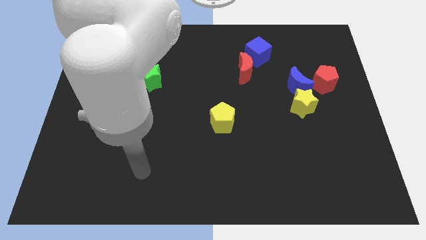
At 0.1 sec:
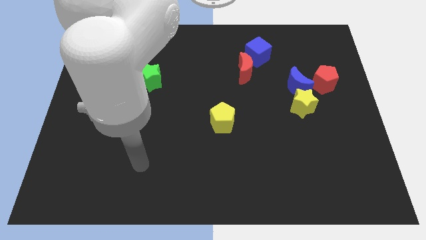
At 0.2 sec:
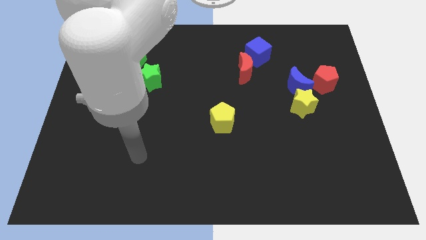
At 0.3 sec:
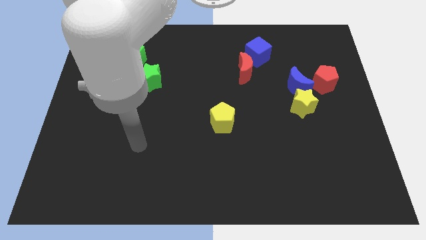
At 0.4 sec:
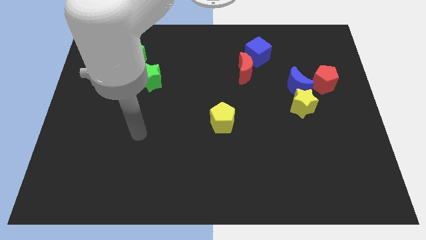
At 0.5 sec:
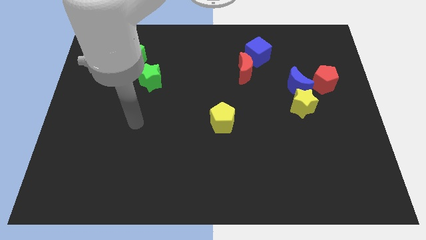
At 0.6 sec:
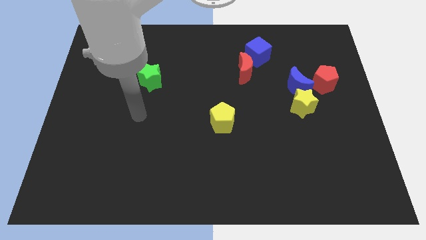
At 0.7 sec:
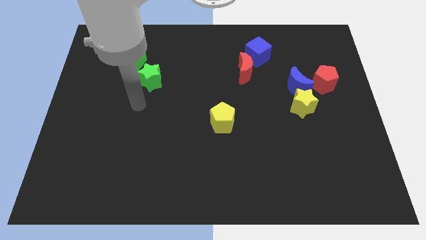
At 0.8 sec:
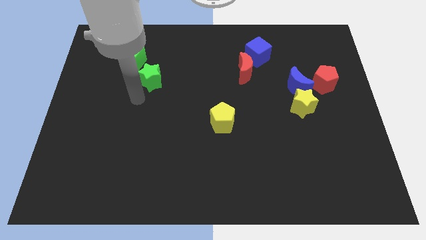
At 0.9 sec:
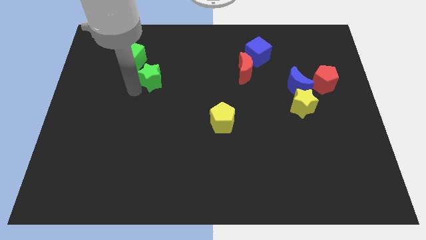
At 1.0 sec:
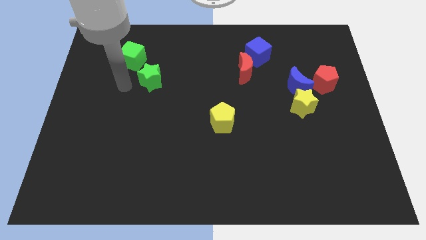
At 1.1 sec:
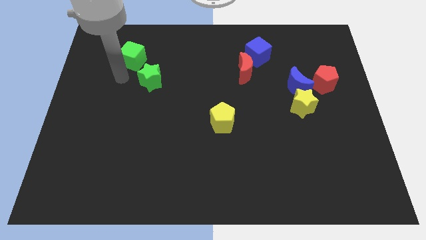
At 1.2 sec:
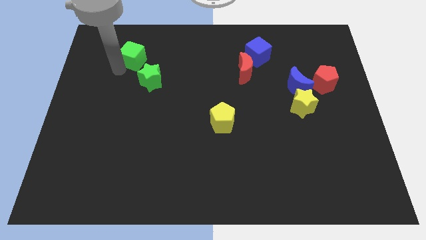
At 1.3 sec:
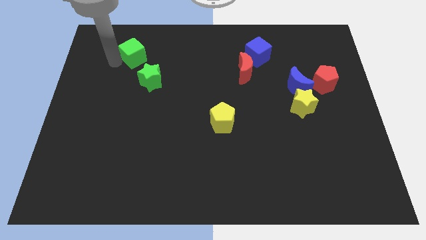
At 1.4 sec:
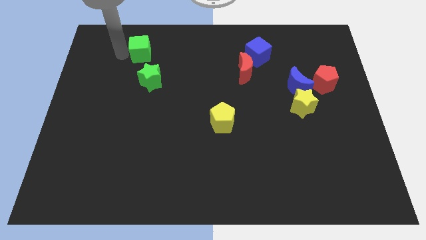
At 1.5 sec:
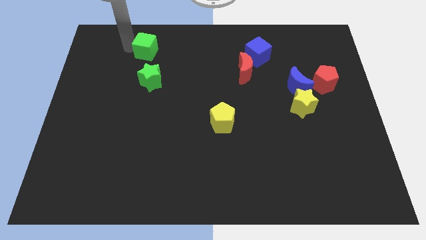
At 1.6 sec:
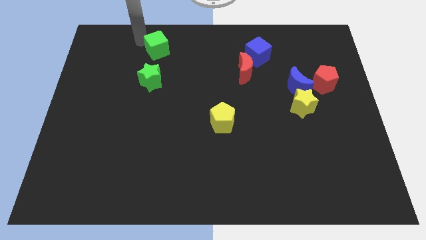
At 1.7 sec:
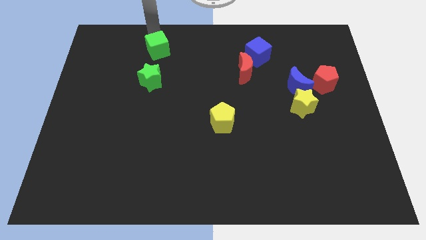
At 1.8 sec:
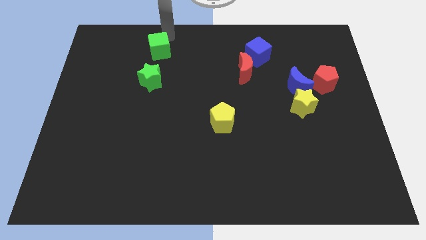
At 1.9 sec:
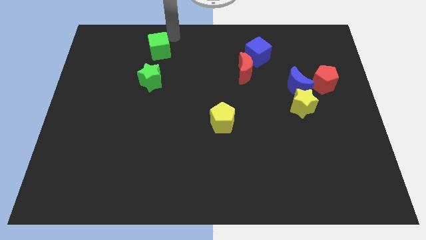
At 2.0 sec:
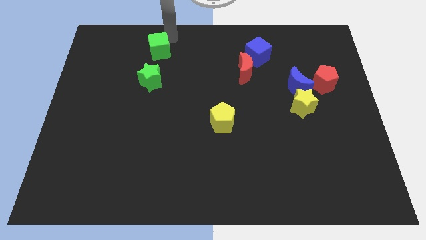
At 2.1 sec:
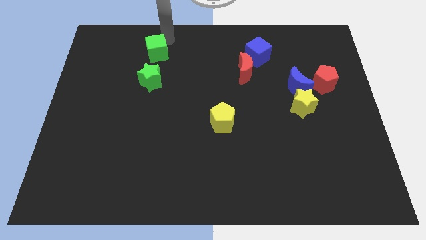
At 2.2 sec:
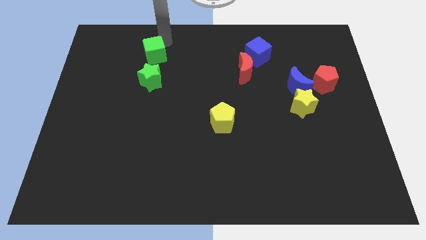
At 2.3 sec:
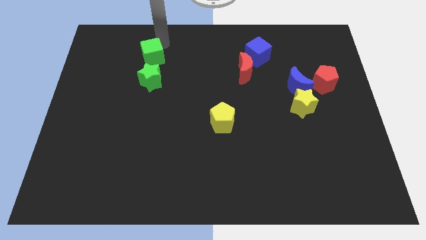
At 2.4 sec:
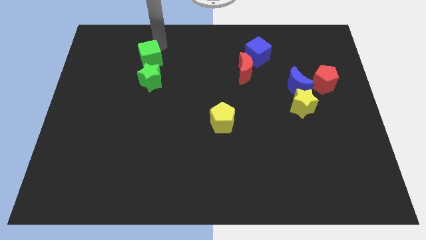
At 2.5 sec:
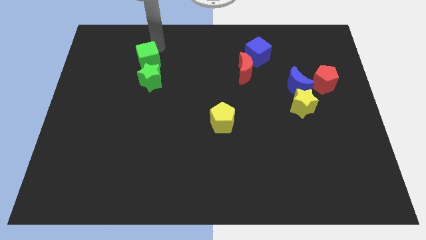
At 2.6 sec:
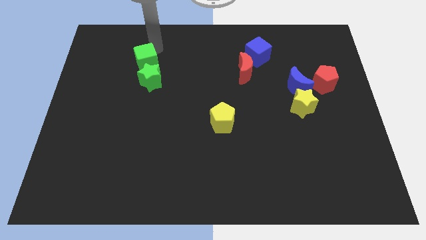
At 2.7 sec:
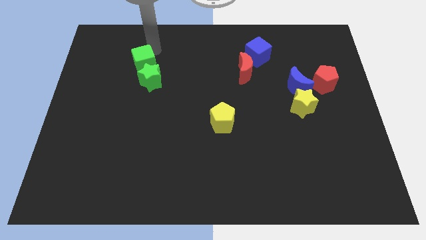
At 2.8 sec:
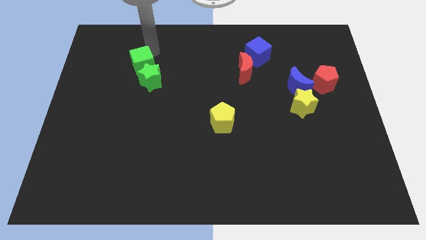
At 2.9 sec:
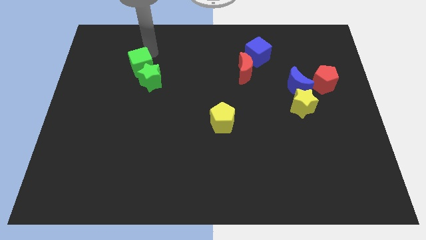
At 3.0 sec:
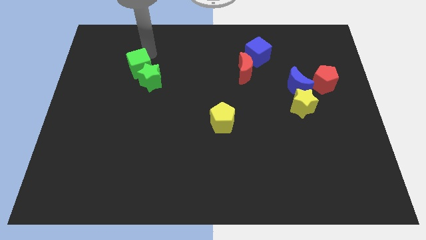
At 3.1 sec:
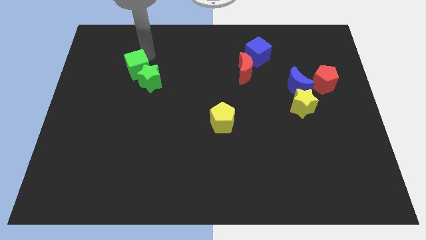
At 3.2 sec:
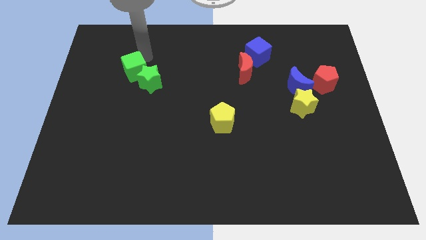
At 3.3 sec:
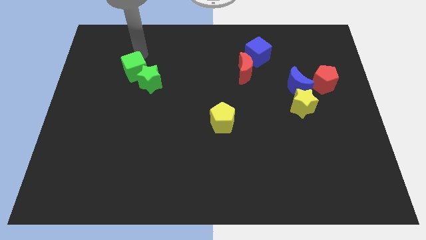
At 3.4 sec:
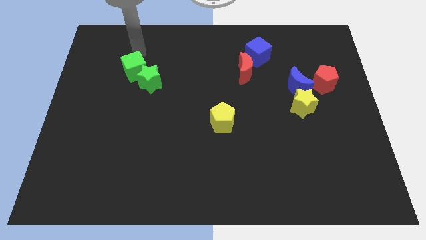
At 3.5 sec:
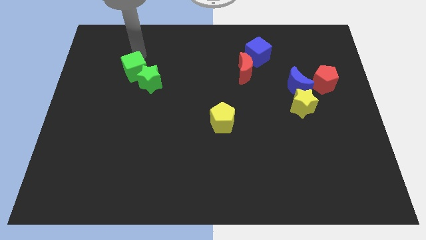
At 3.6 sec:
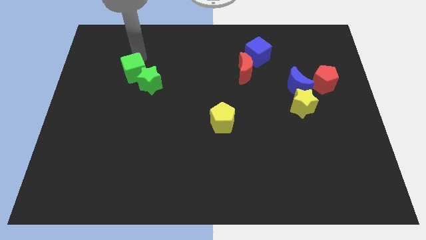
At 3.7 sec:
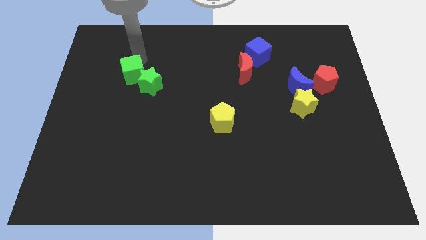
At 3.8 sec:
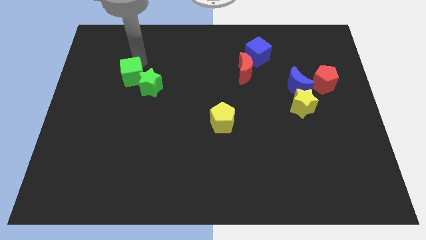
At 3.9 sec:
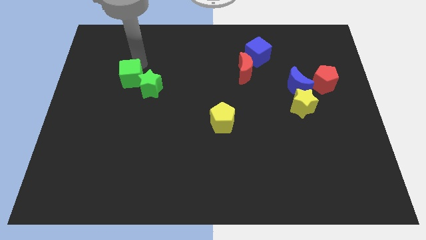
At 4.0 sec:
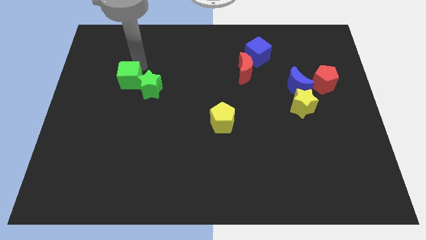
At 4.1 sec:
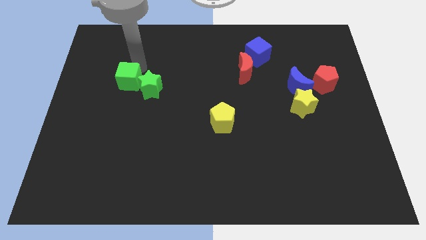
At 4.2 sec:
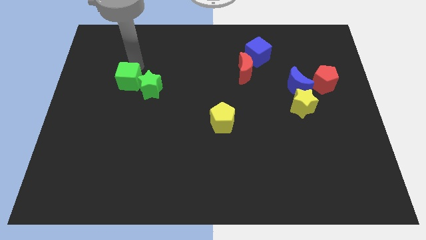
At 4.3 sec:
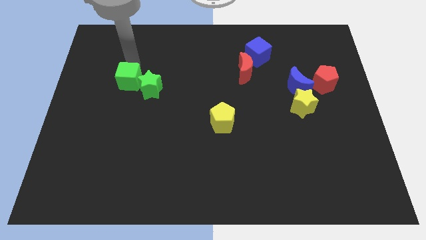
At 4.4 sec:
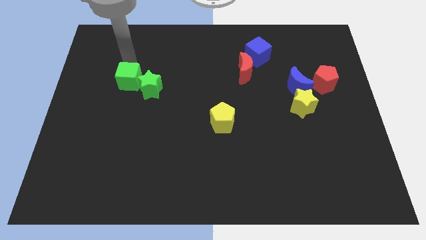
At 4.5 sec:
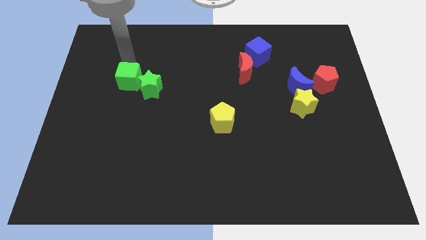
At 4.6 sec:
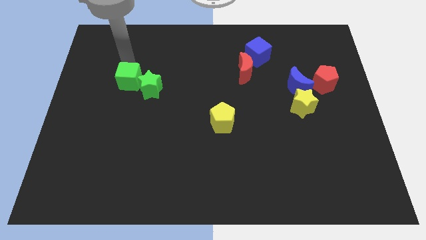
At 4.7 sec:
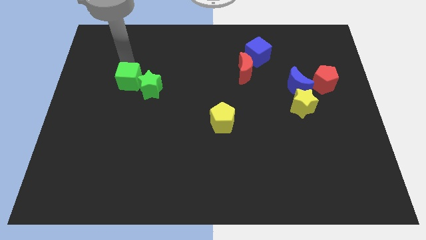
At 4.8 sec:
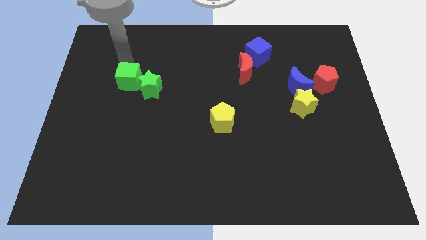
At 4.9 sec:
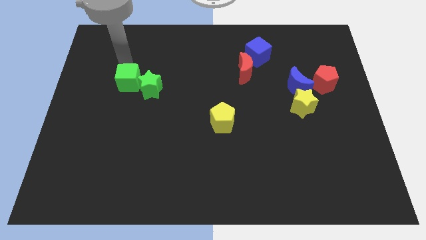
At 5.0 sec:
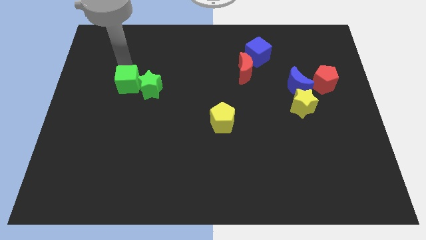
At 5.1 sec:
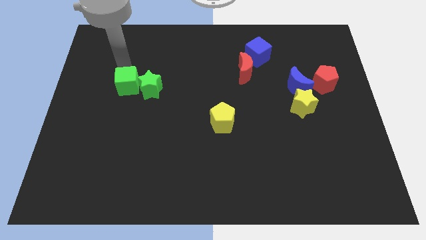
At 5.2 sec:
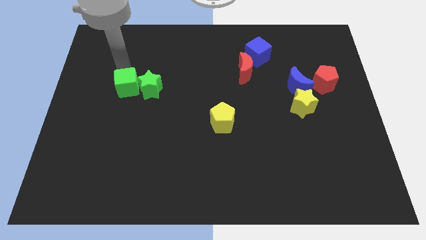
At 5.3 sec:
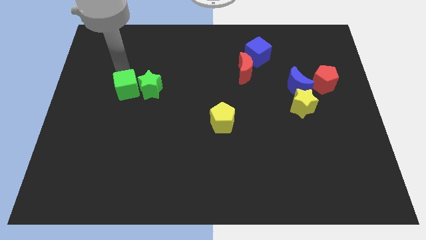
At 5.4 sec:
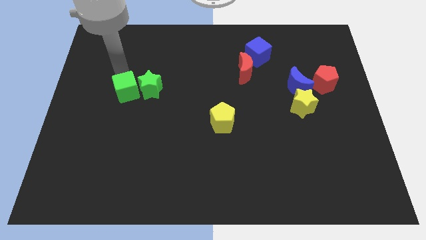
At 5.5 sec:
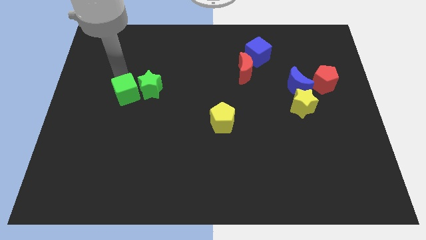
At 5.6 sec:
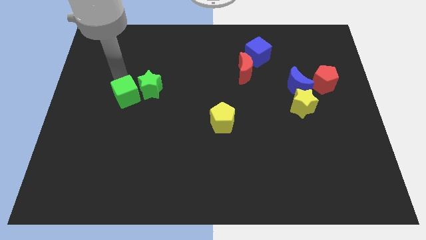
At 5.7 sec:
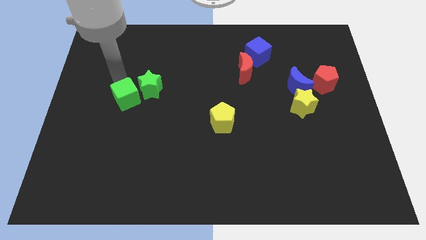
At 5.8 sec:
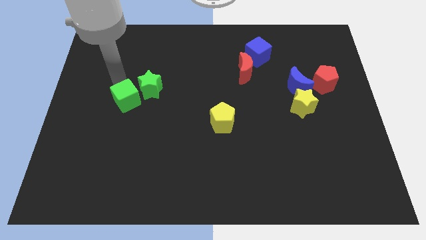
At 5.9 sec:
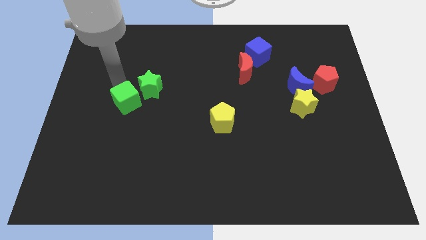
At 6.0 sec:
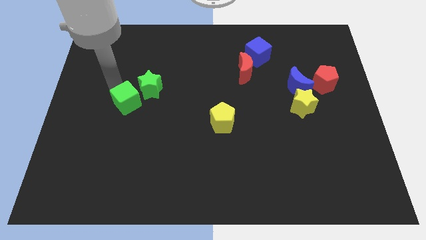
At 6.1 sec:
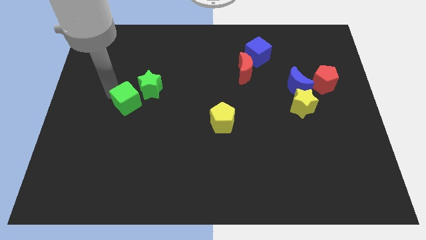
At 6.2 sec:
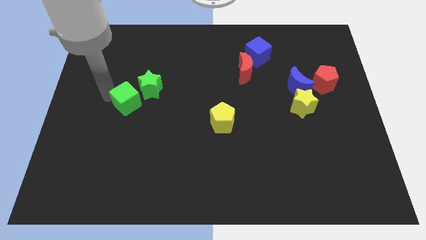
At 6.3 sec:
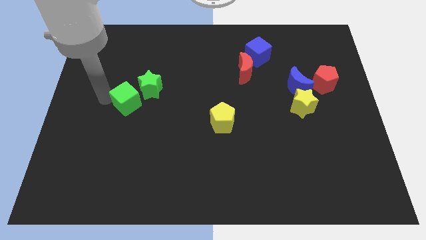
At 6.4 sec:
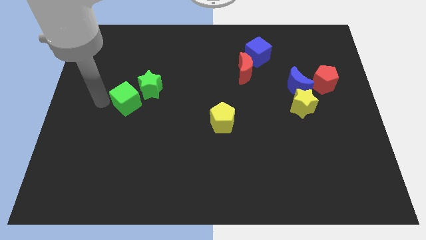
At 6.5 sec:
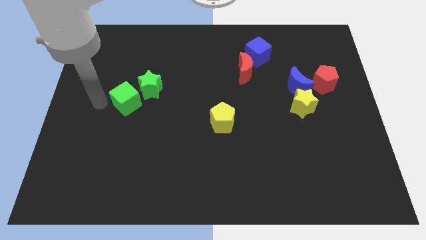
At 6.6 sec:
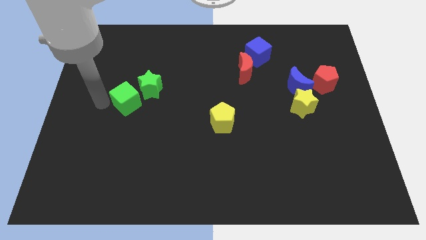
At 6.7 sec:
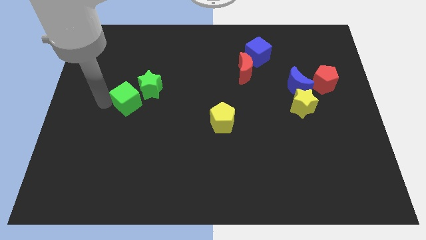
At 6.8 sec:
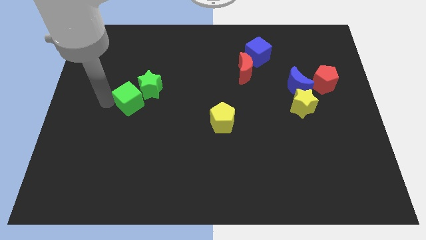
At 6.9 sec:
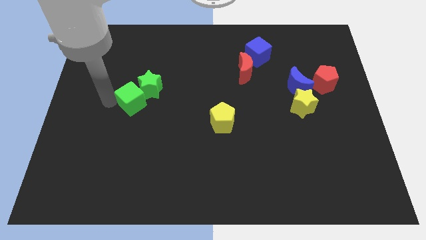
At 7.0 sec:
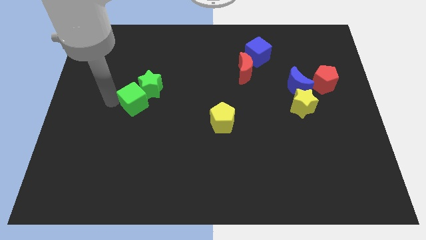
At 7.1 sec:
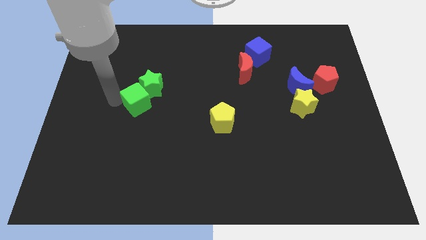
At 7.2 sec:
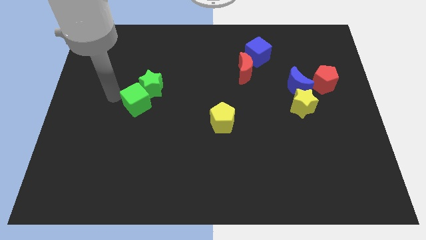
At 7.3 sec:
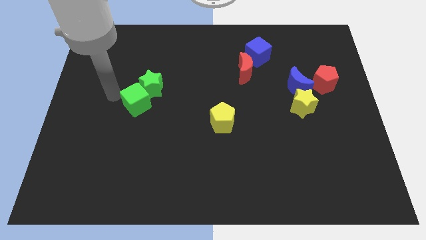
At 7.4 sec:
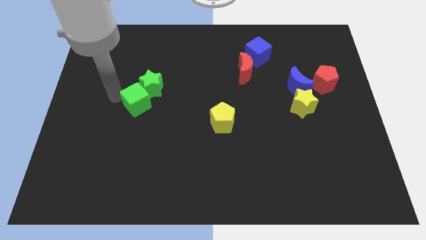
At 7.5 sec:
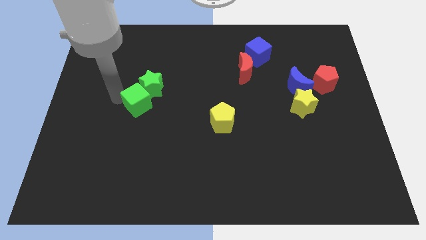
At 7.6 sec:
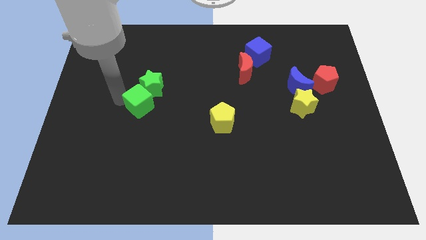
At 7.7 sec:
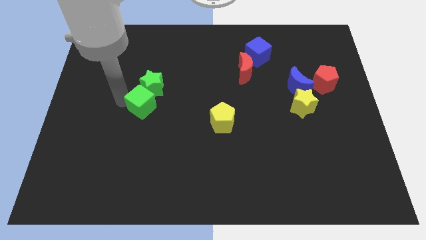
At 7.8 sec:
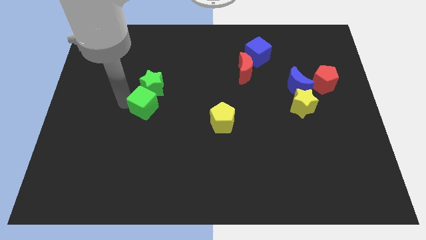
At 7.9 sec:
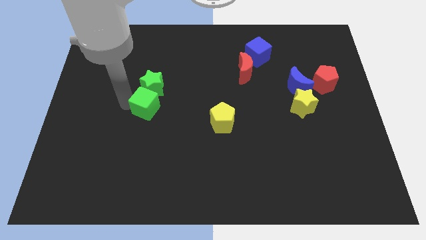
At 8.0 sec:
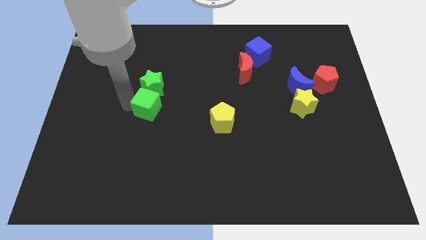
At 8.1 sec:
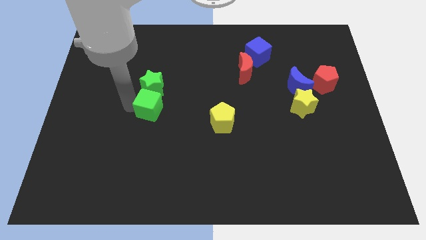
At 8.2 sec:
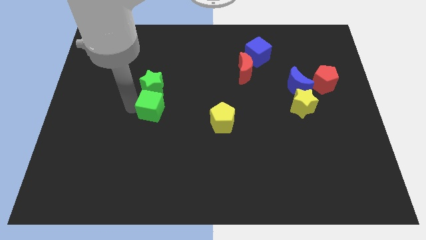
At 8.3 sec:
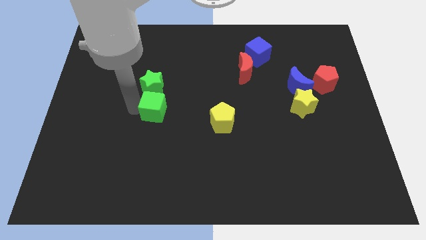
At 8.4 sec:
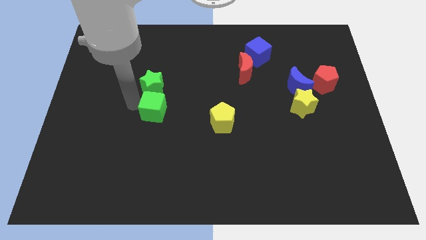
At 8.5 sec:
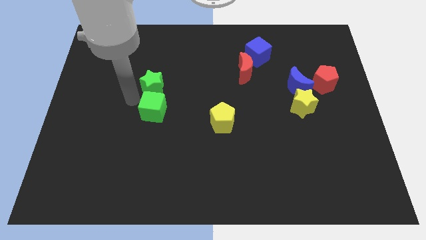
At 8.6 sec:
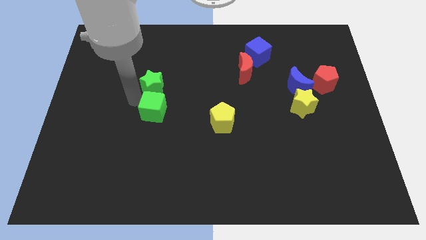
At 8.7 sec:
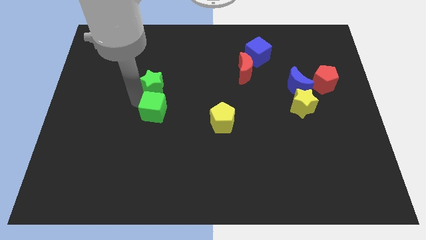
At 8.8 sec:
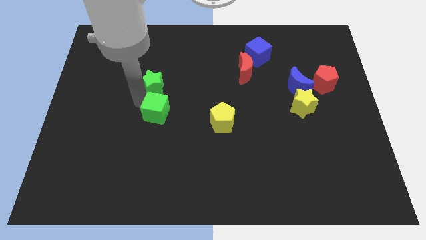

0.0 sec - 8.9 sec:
slide the green cube to the left of the yellow pentagon
